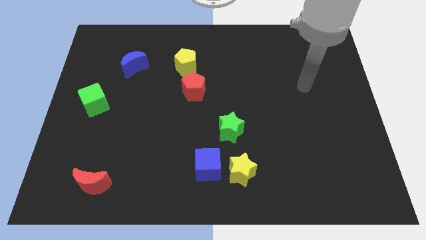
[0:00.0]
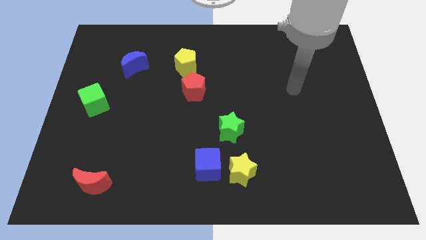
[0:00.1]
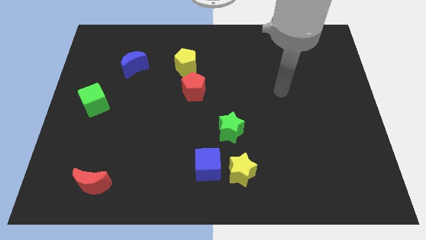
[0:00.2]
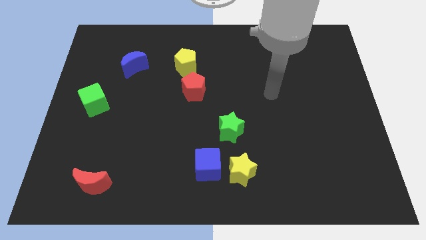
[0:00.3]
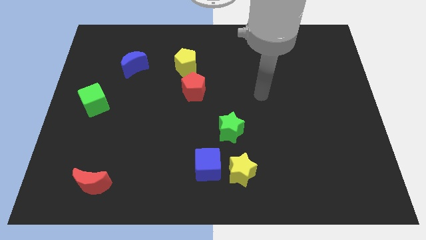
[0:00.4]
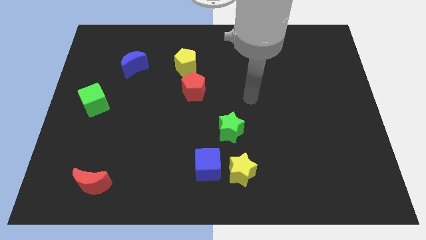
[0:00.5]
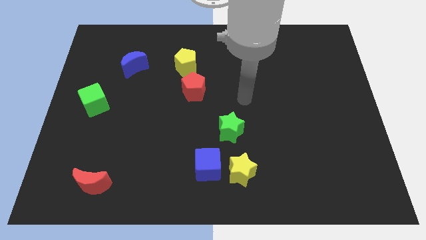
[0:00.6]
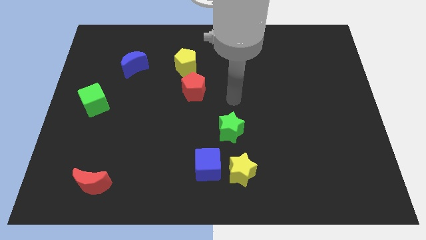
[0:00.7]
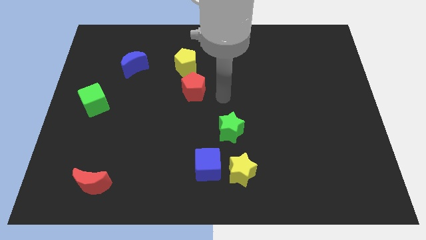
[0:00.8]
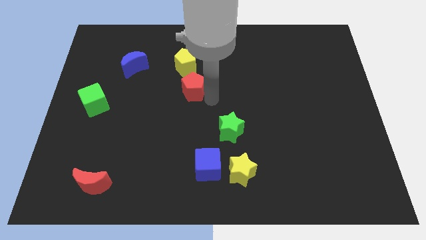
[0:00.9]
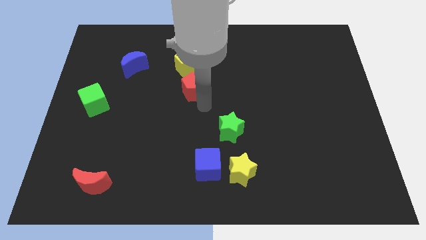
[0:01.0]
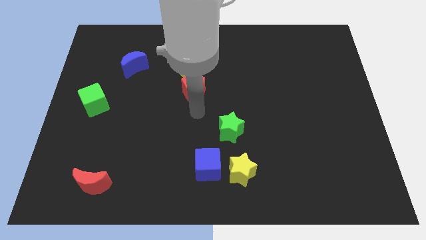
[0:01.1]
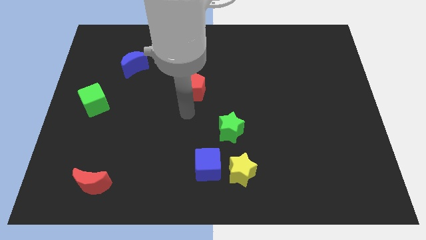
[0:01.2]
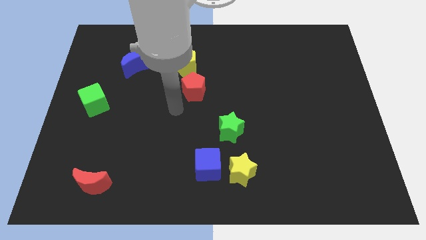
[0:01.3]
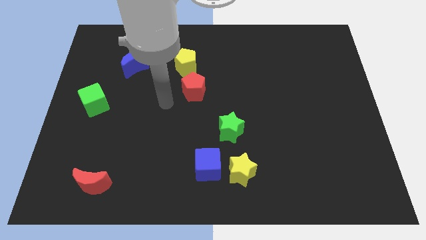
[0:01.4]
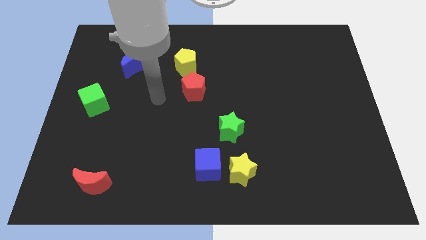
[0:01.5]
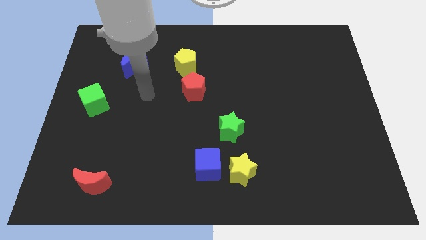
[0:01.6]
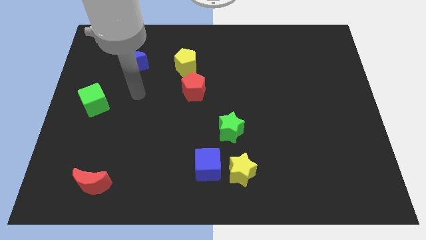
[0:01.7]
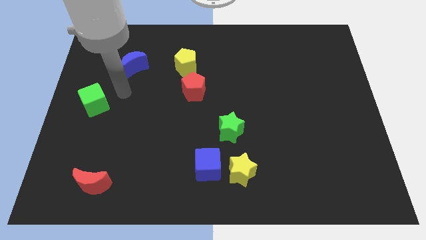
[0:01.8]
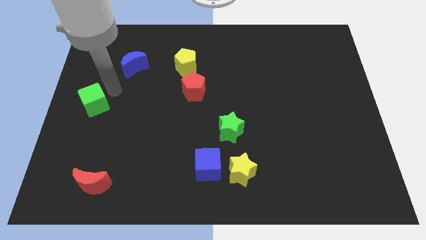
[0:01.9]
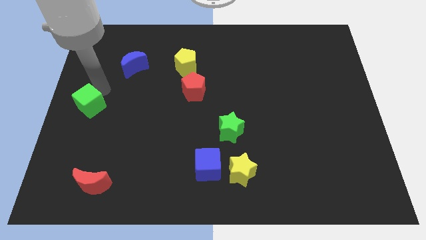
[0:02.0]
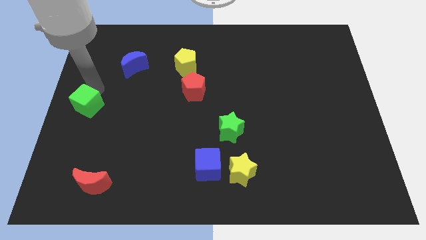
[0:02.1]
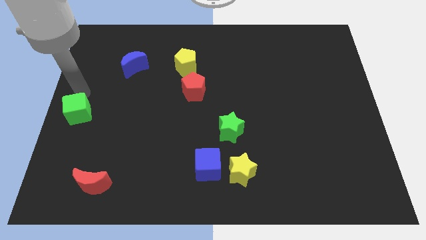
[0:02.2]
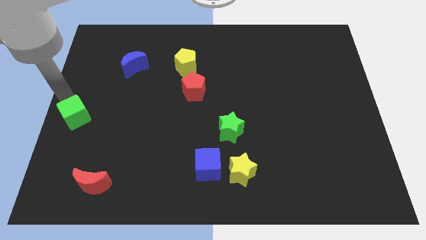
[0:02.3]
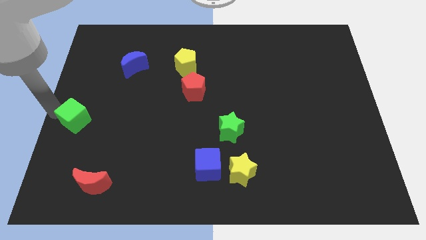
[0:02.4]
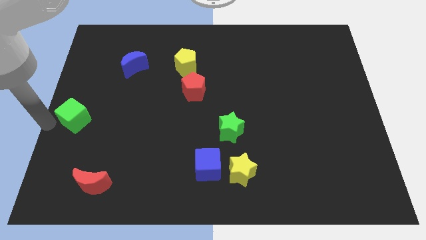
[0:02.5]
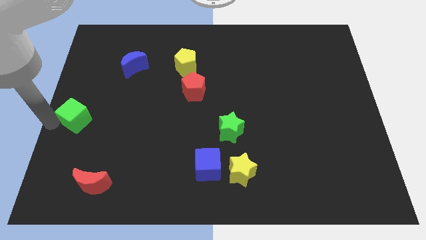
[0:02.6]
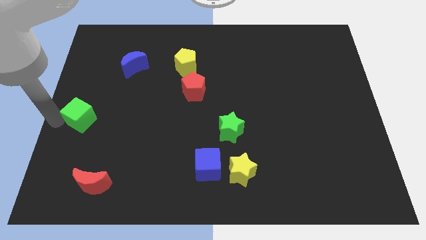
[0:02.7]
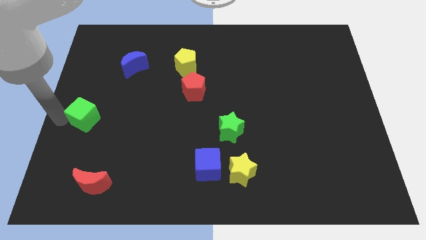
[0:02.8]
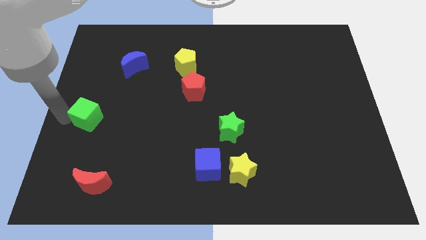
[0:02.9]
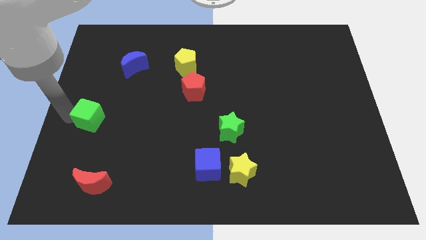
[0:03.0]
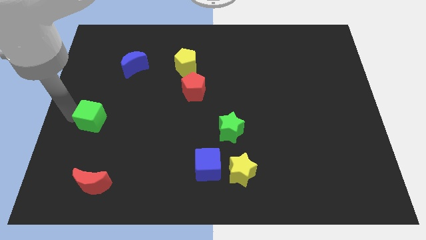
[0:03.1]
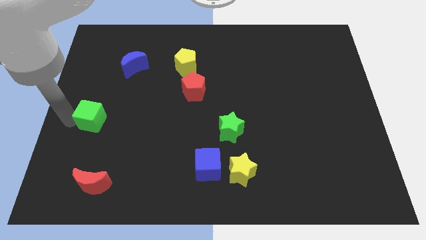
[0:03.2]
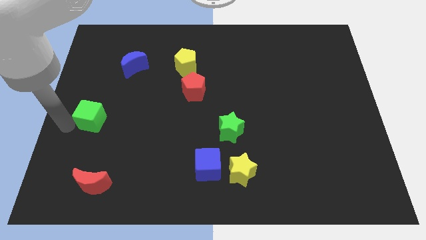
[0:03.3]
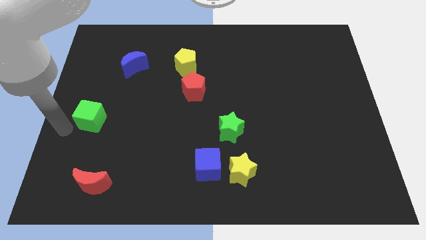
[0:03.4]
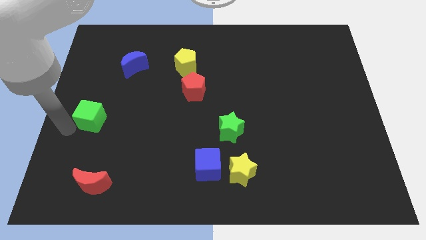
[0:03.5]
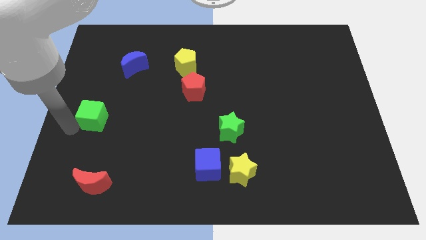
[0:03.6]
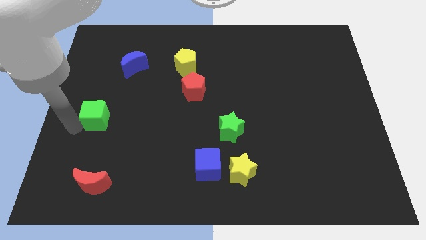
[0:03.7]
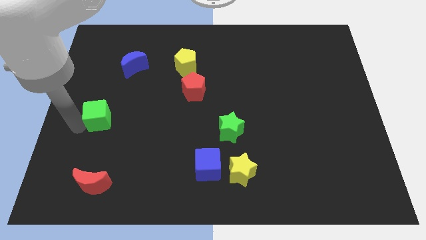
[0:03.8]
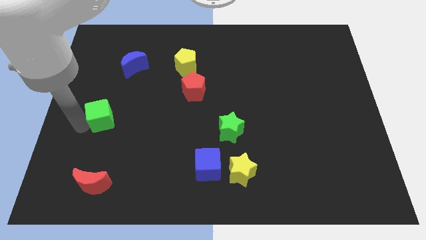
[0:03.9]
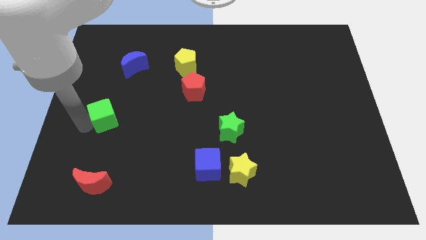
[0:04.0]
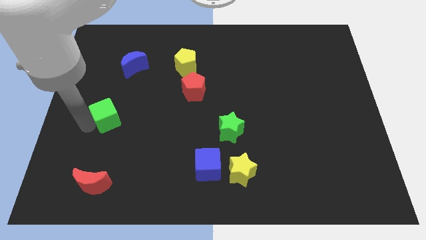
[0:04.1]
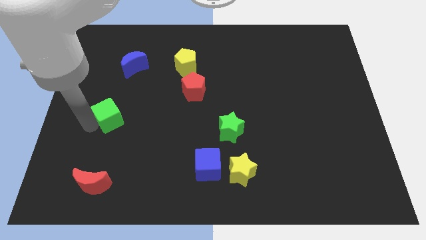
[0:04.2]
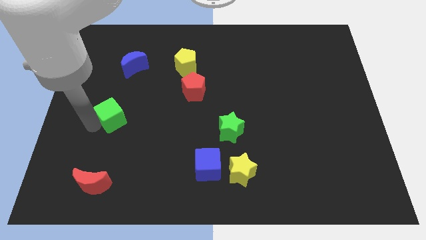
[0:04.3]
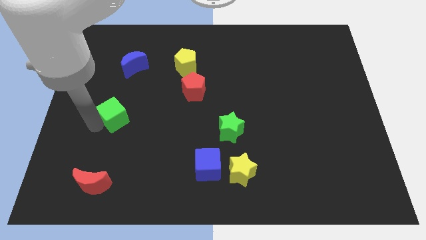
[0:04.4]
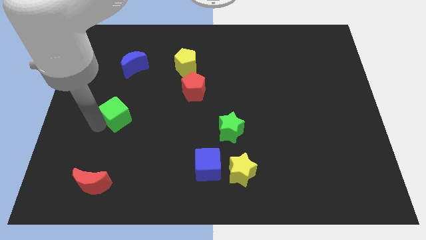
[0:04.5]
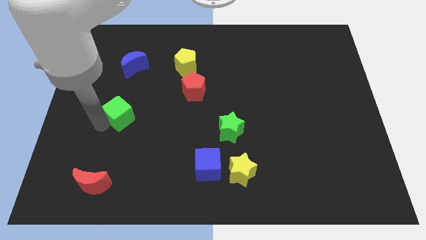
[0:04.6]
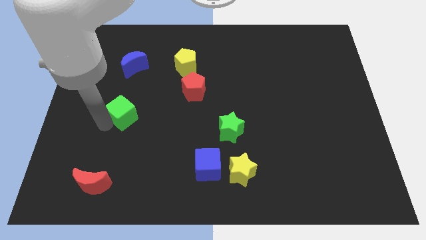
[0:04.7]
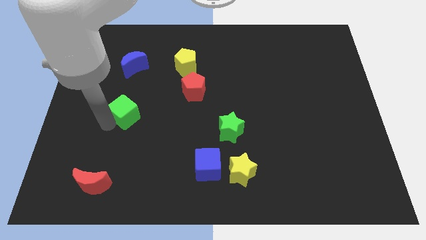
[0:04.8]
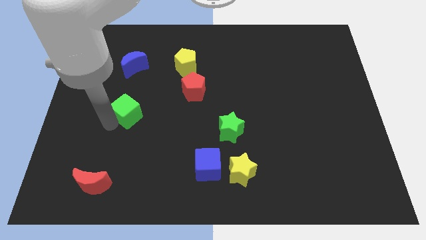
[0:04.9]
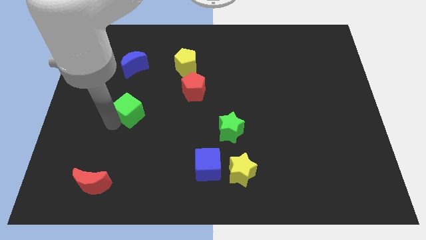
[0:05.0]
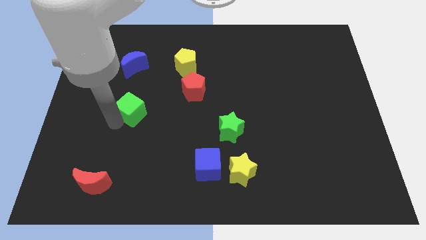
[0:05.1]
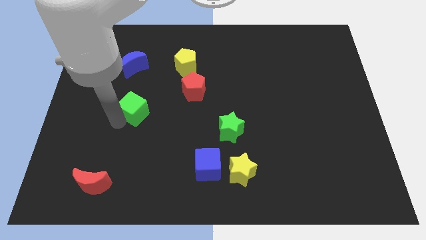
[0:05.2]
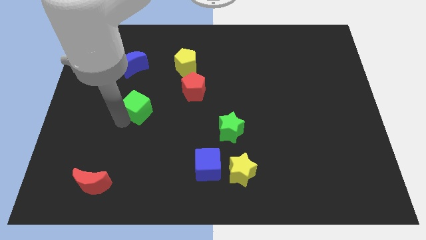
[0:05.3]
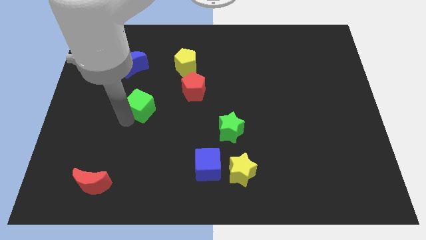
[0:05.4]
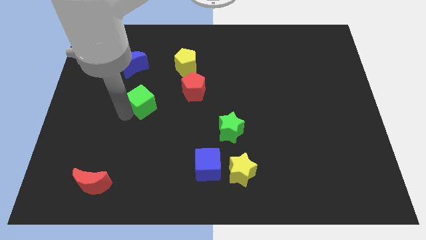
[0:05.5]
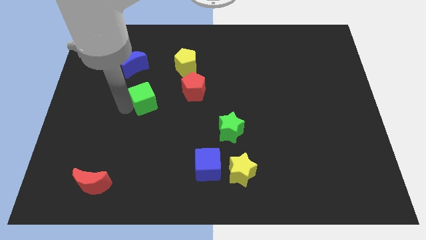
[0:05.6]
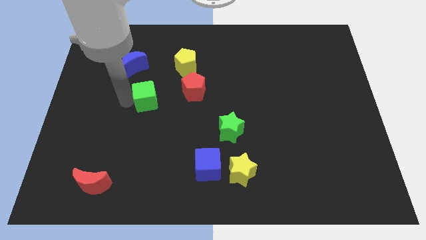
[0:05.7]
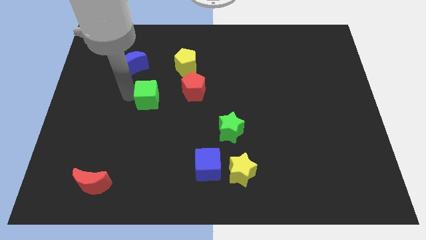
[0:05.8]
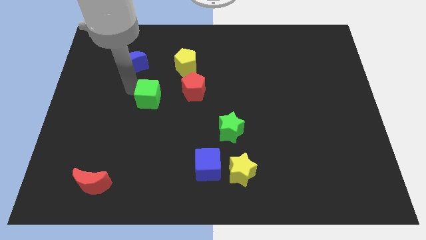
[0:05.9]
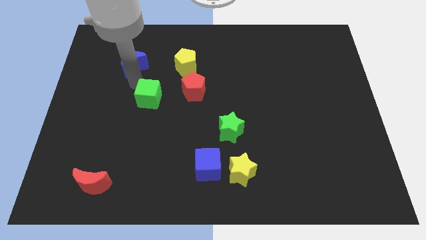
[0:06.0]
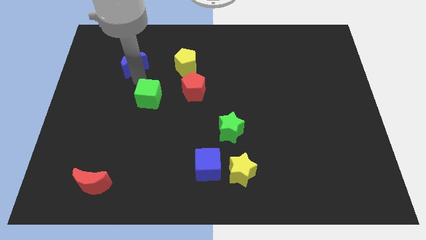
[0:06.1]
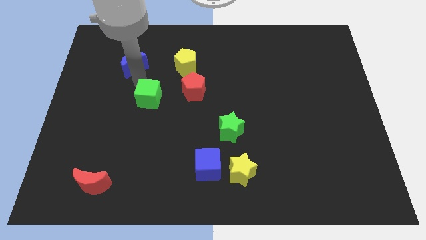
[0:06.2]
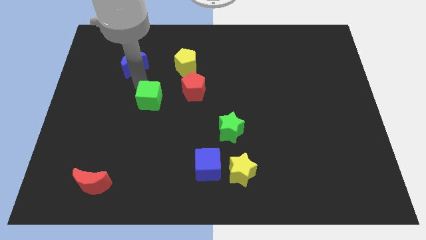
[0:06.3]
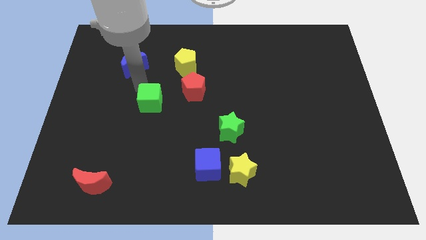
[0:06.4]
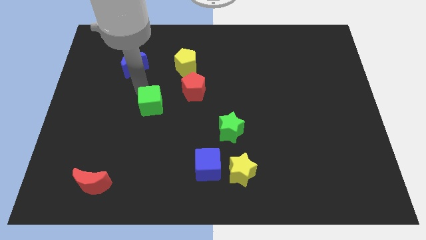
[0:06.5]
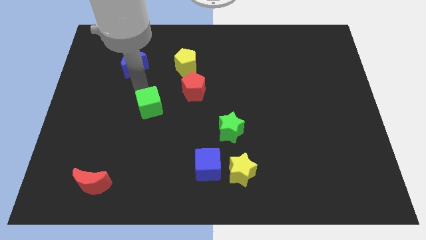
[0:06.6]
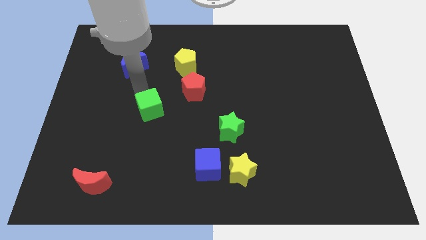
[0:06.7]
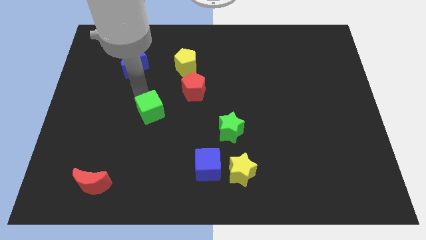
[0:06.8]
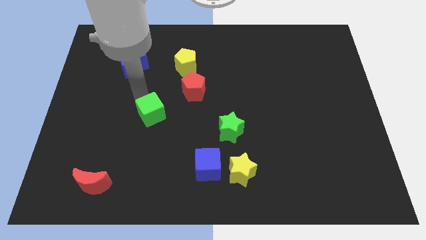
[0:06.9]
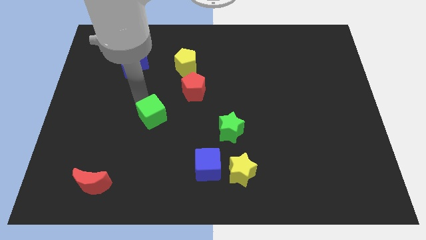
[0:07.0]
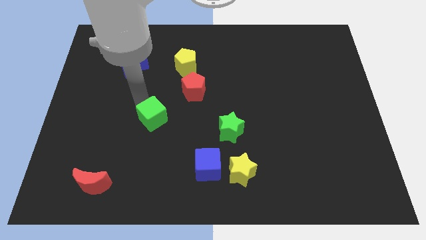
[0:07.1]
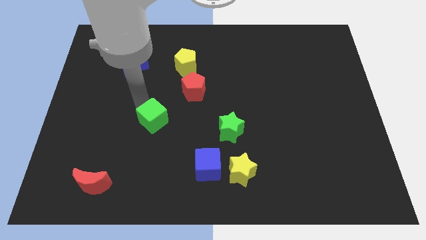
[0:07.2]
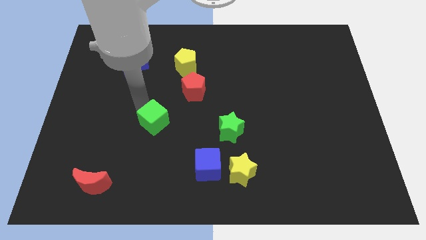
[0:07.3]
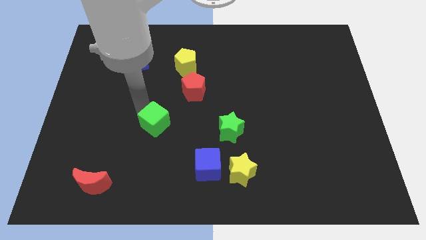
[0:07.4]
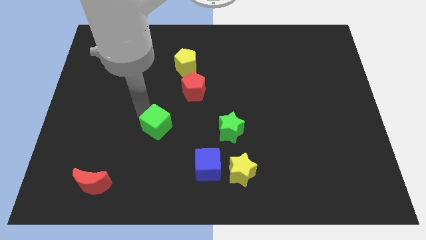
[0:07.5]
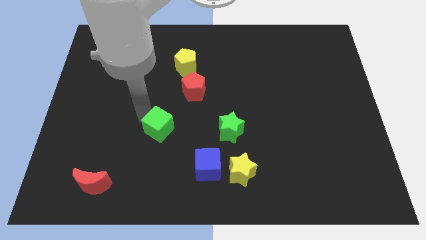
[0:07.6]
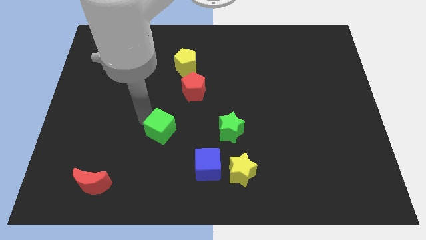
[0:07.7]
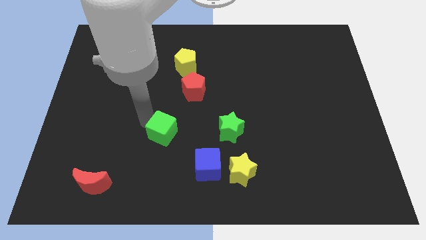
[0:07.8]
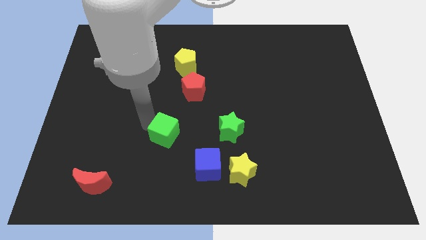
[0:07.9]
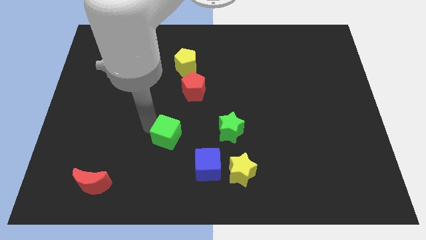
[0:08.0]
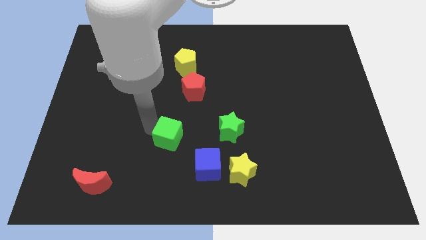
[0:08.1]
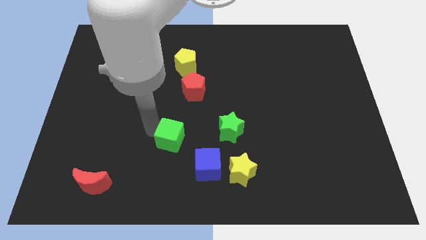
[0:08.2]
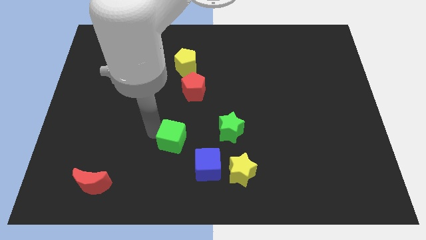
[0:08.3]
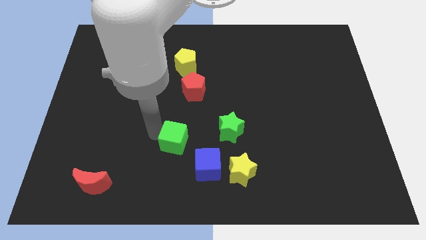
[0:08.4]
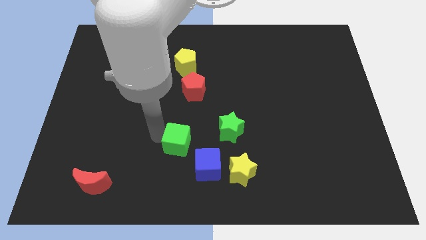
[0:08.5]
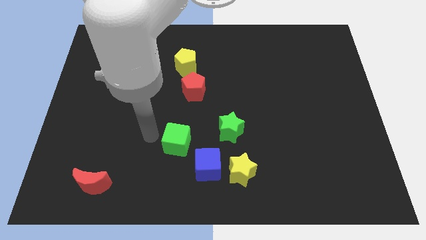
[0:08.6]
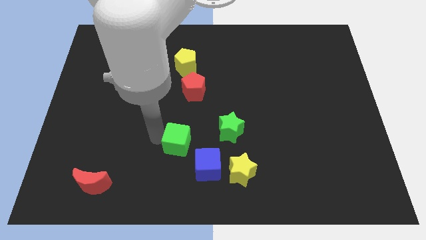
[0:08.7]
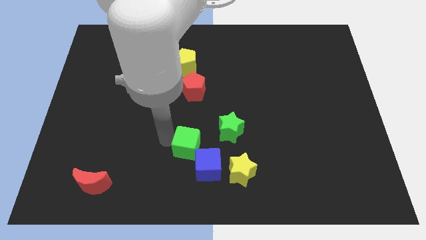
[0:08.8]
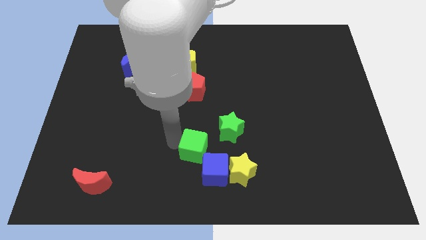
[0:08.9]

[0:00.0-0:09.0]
put the green cube diagonally up and to the left of the yellow star
